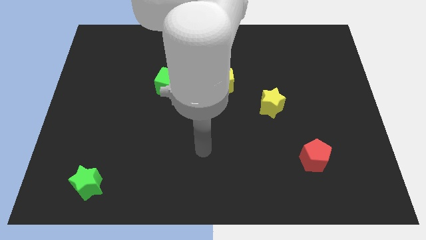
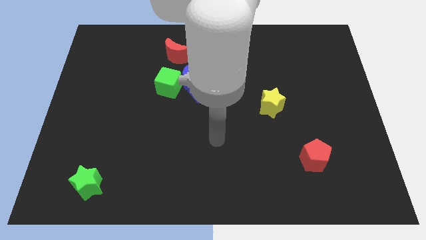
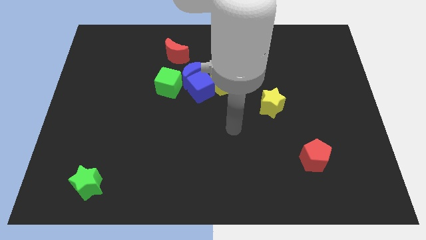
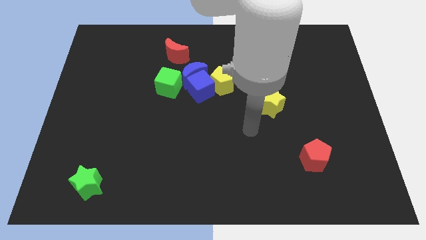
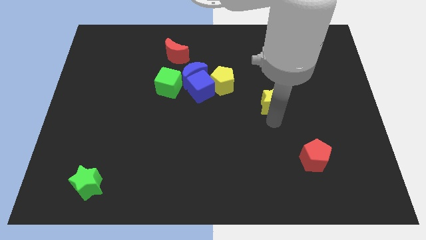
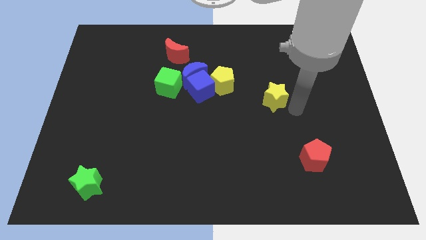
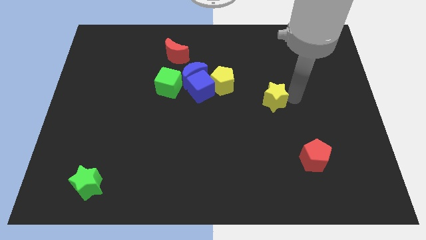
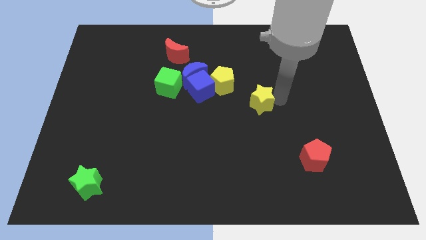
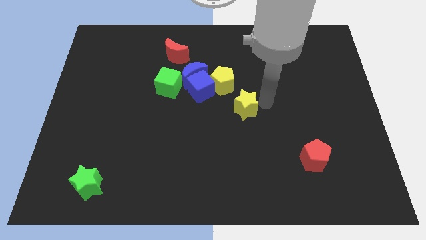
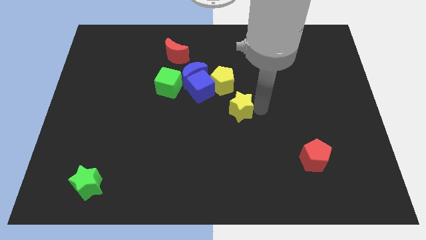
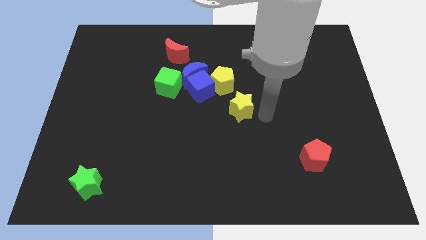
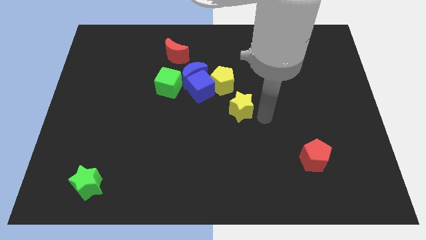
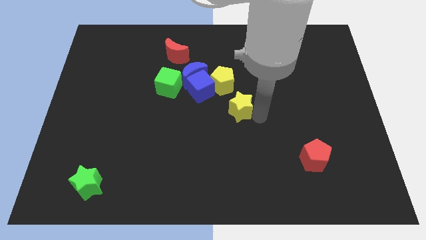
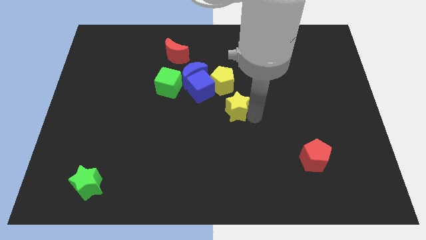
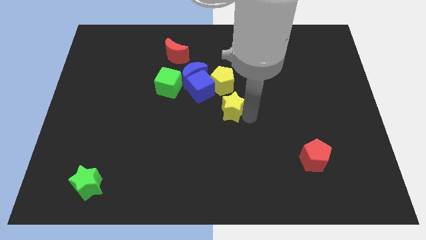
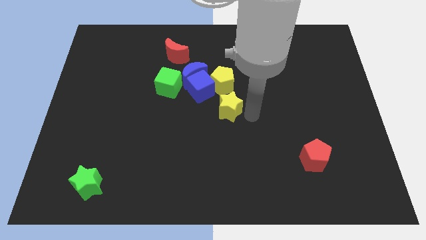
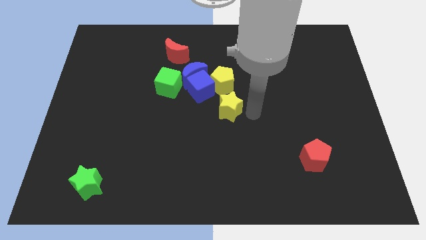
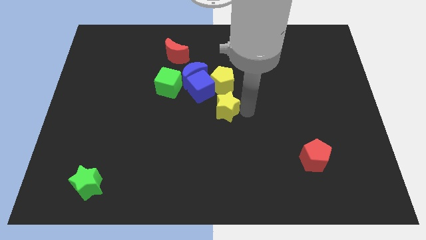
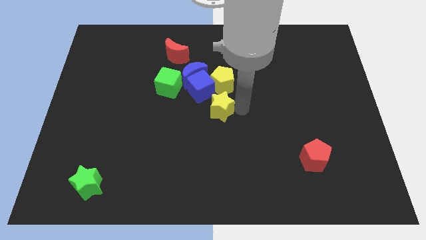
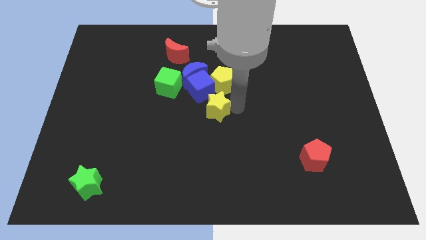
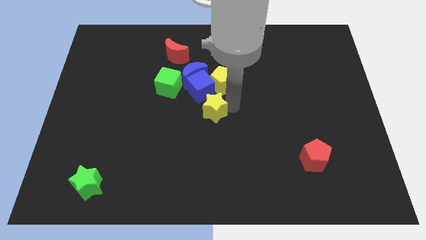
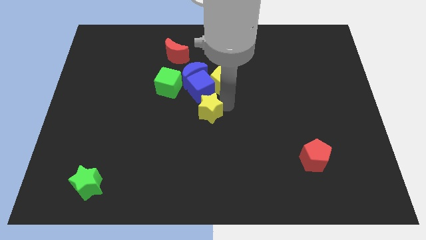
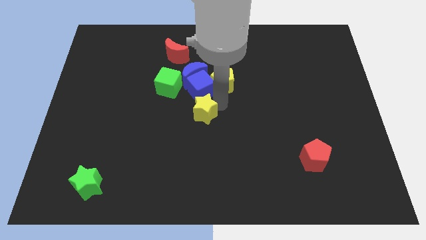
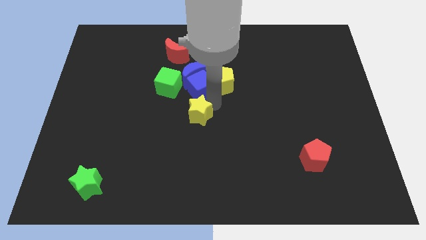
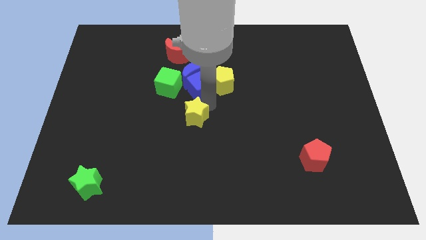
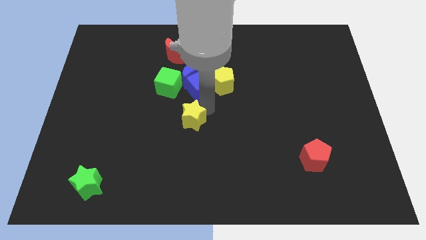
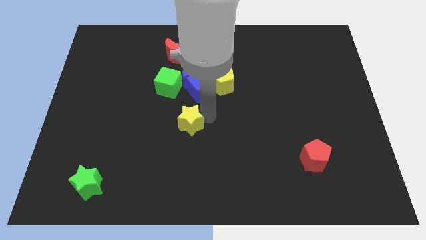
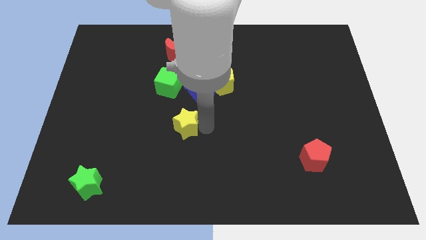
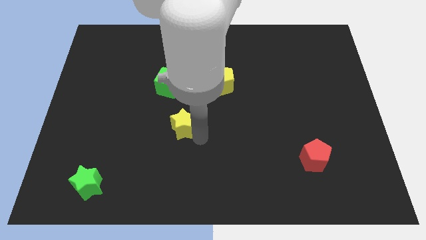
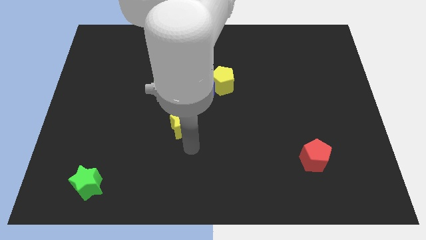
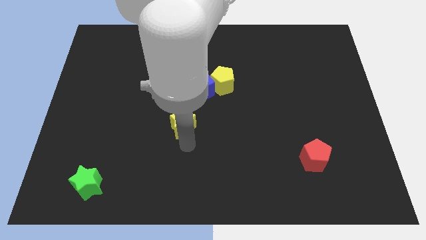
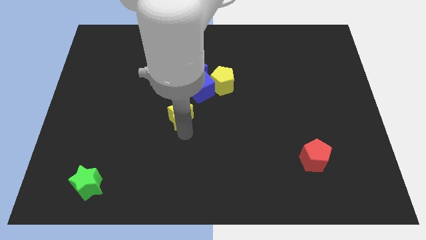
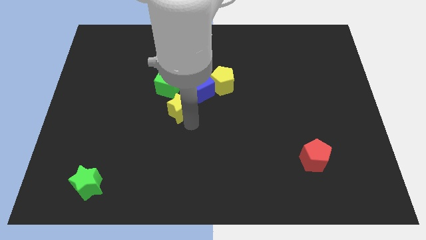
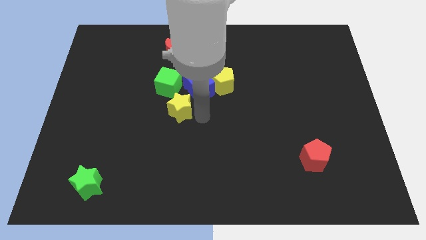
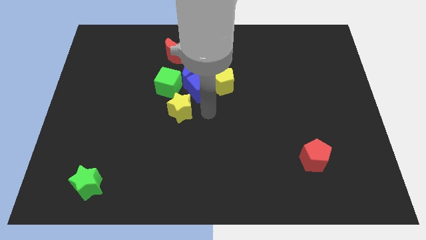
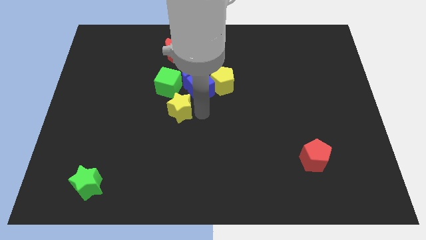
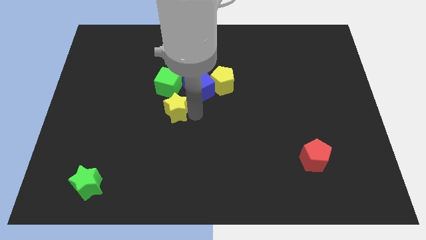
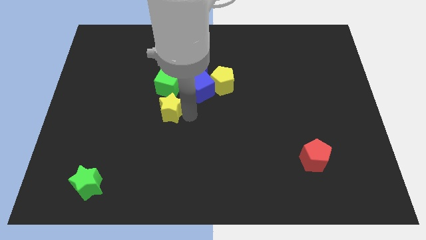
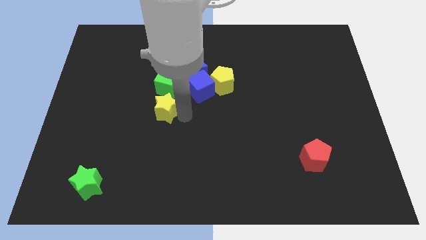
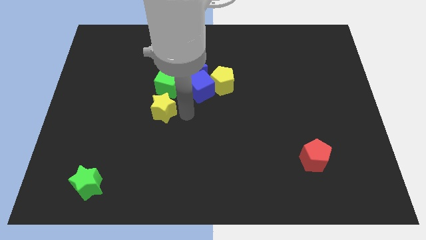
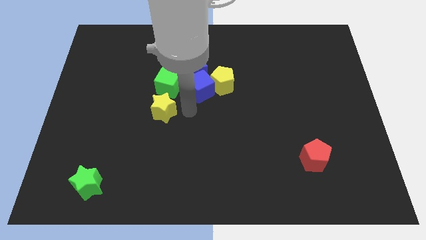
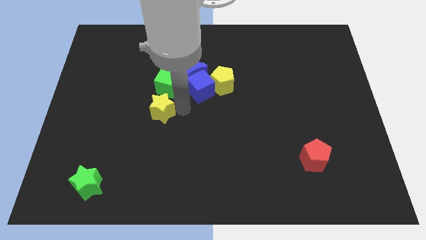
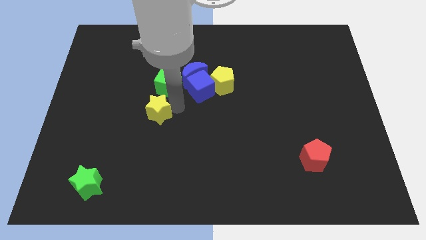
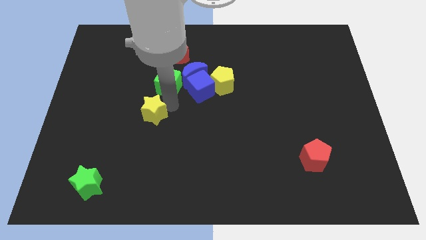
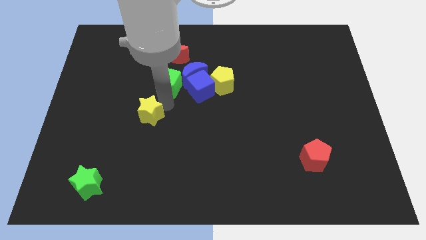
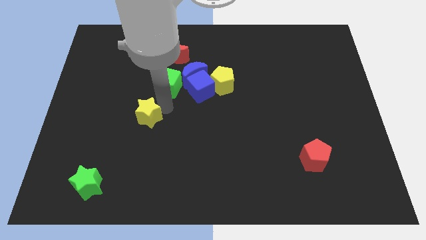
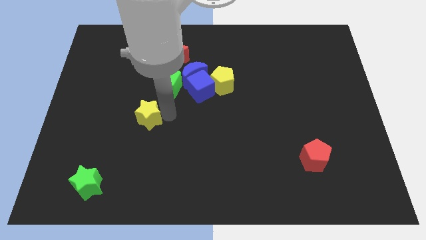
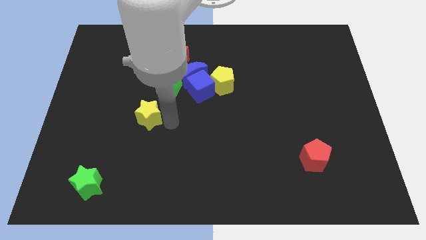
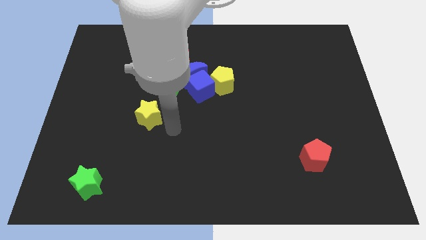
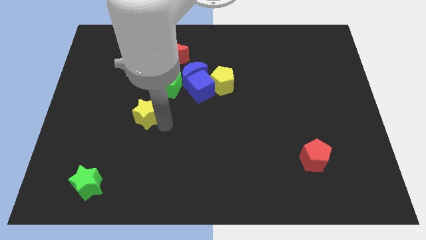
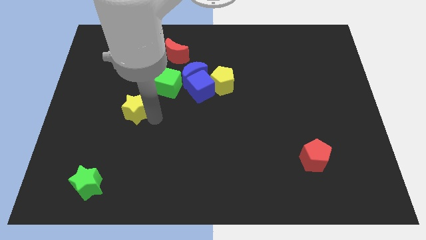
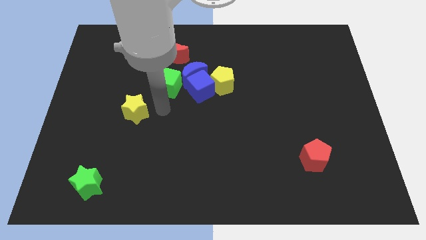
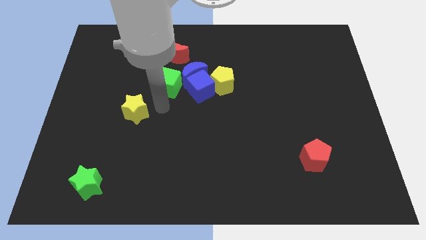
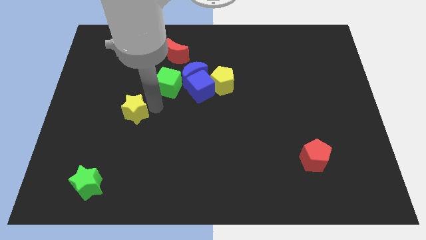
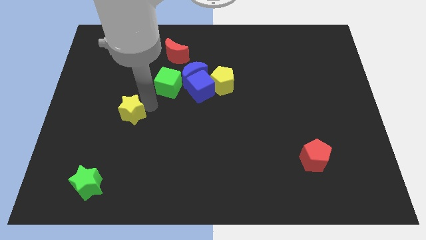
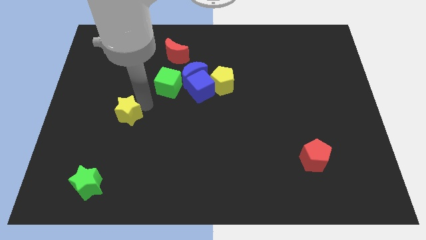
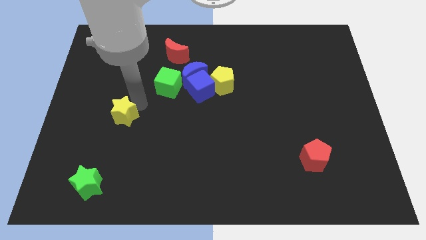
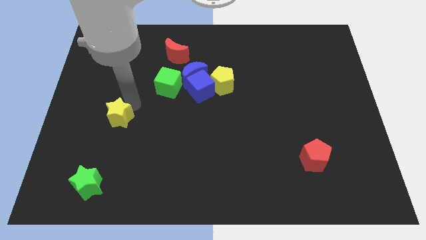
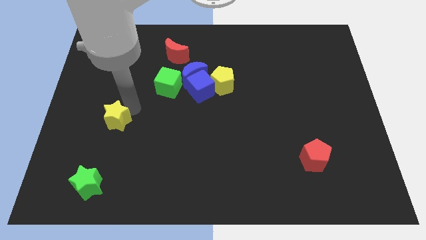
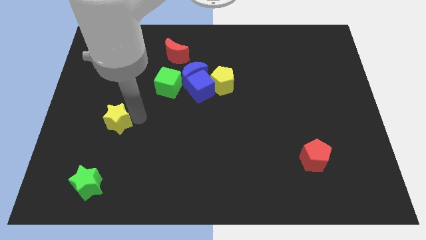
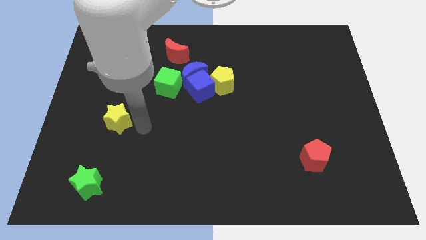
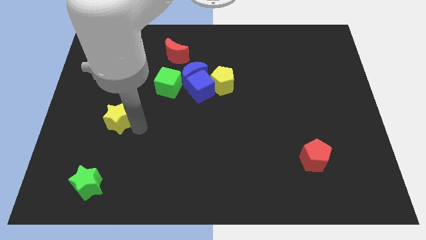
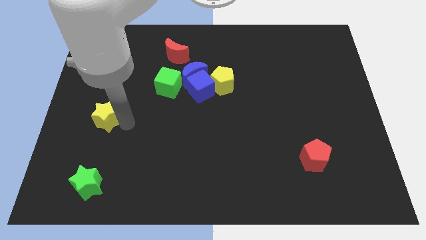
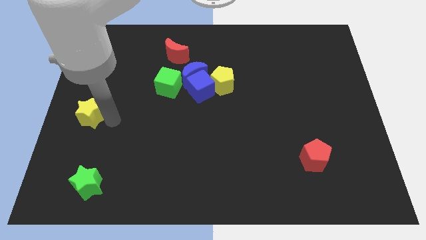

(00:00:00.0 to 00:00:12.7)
put the yellow star to the center left
